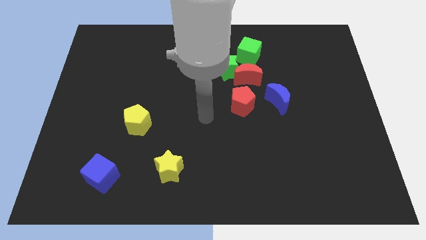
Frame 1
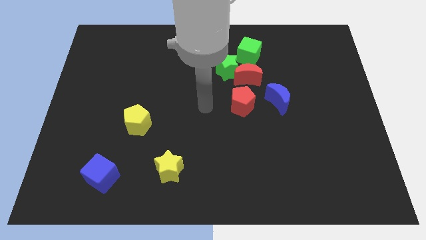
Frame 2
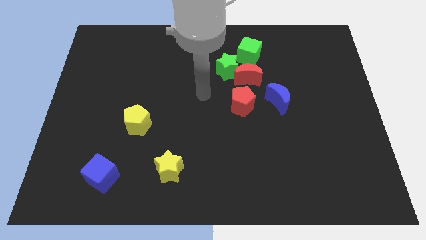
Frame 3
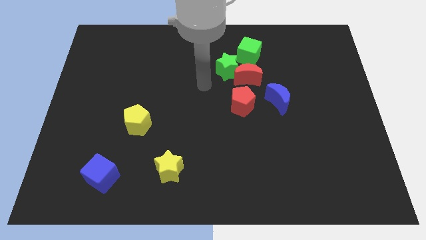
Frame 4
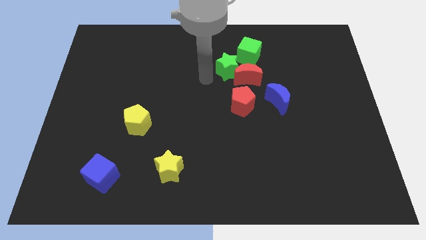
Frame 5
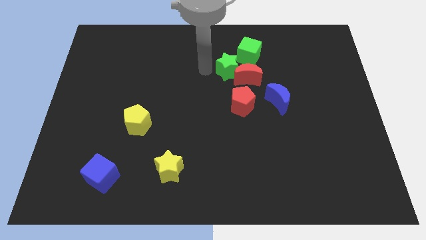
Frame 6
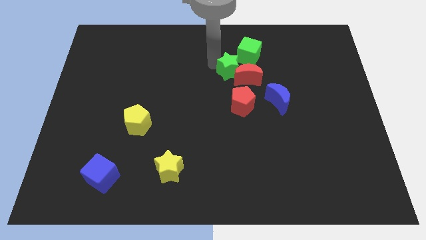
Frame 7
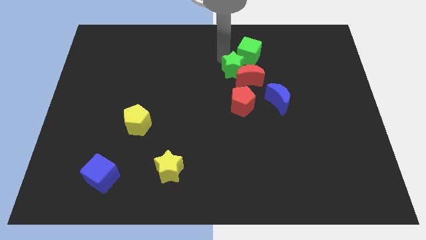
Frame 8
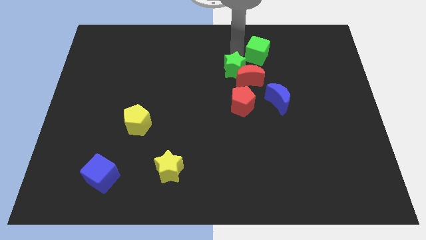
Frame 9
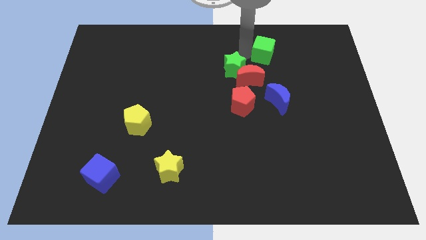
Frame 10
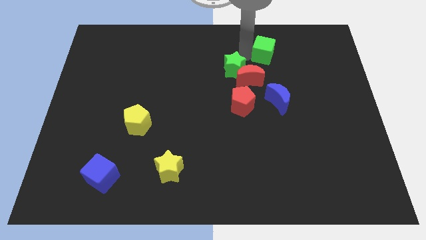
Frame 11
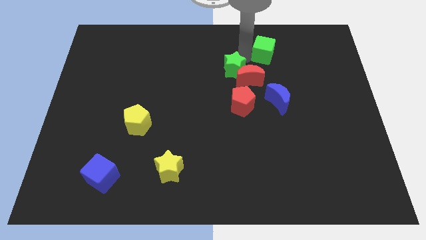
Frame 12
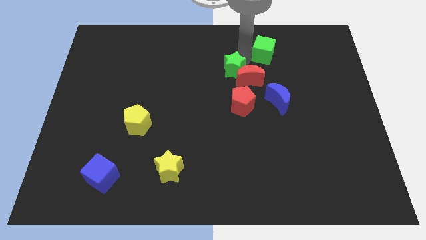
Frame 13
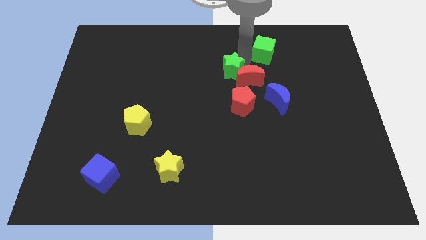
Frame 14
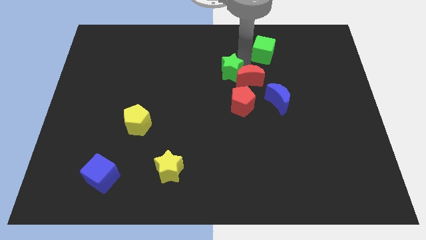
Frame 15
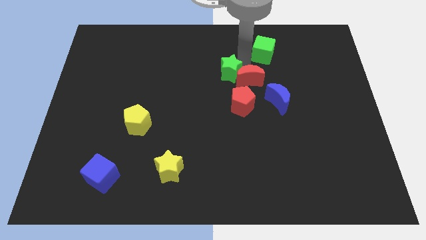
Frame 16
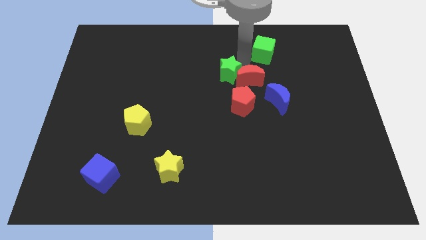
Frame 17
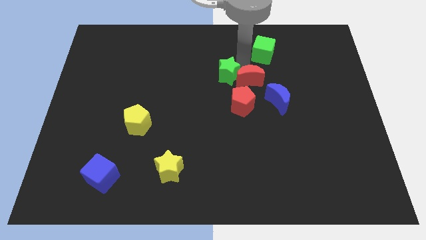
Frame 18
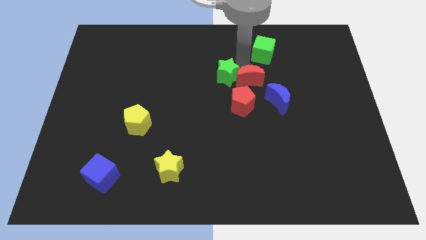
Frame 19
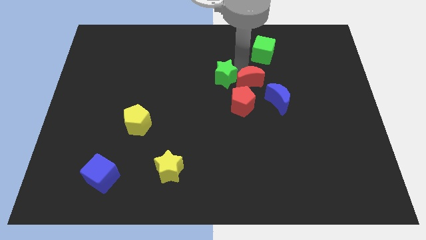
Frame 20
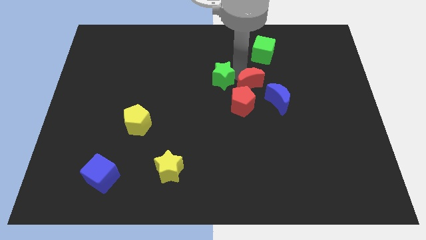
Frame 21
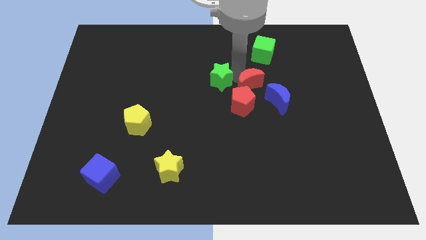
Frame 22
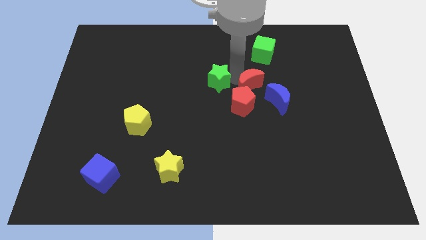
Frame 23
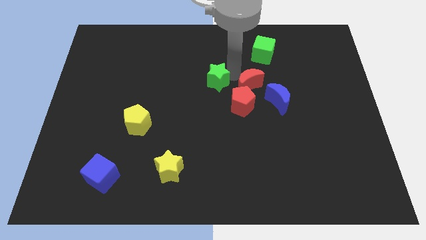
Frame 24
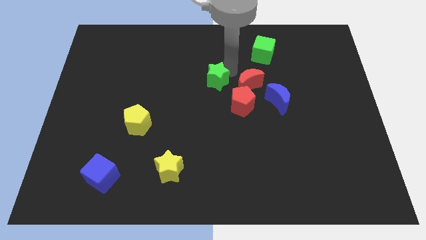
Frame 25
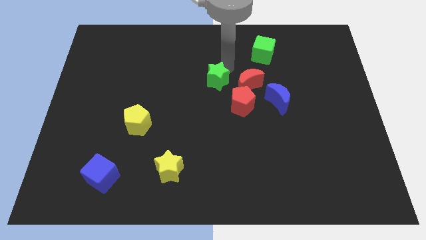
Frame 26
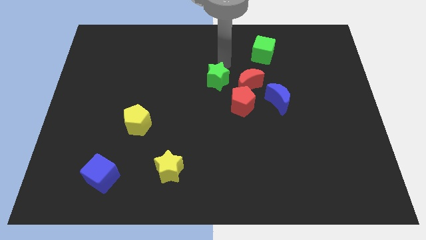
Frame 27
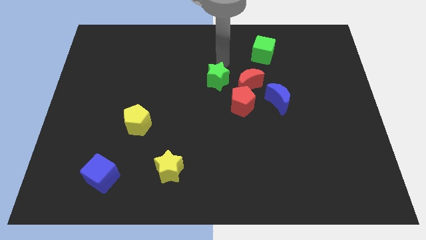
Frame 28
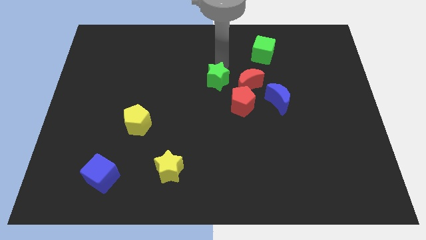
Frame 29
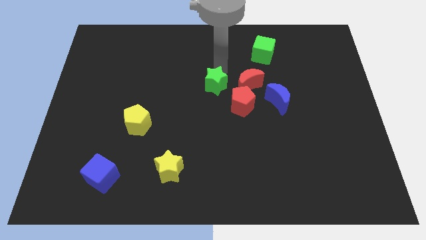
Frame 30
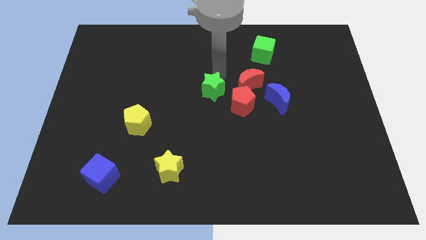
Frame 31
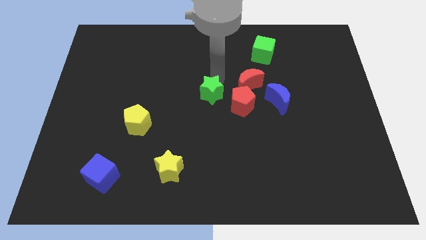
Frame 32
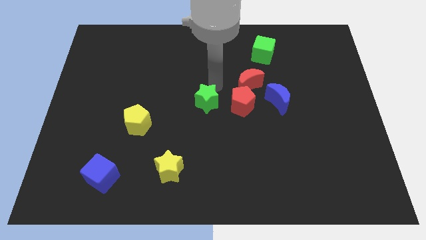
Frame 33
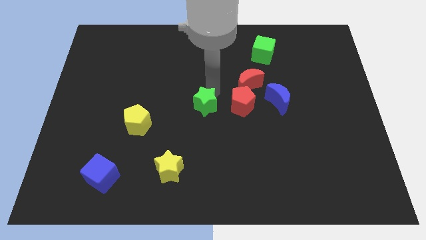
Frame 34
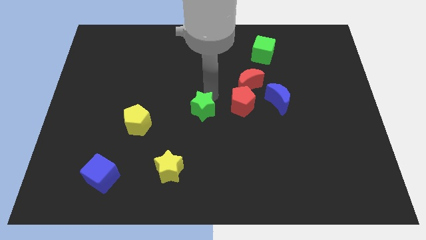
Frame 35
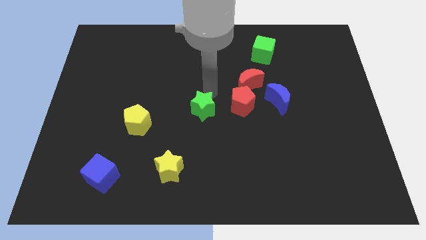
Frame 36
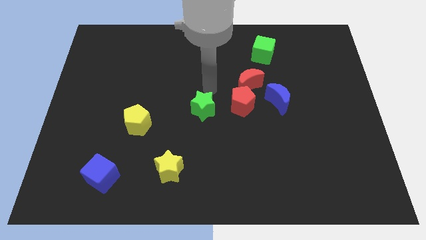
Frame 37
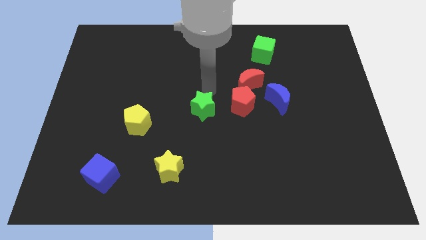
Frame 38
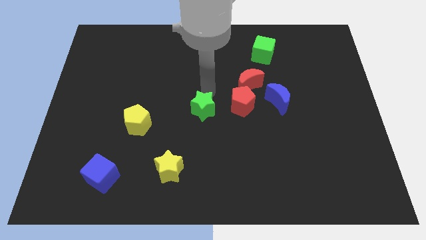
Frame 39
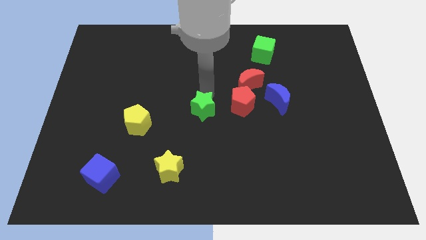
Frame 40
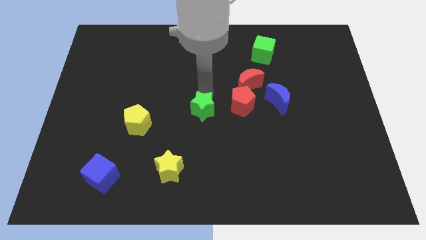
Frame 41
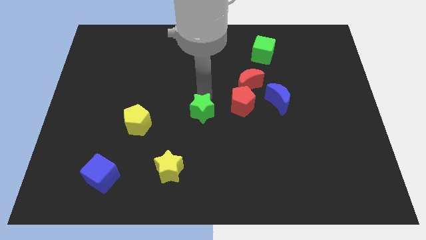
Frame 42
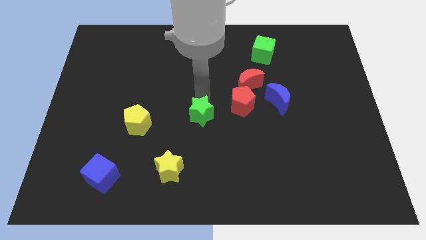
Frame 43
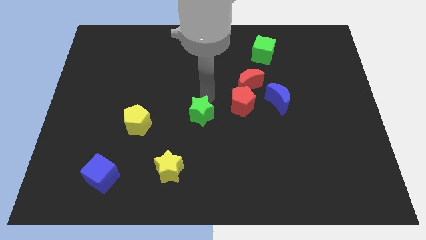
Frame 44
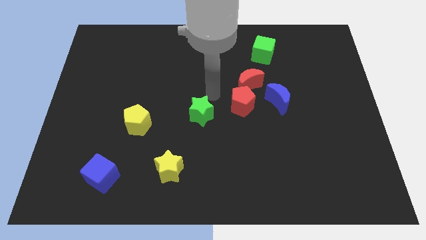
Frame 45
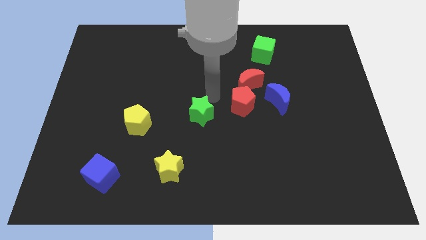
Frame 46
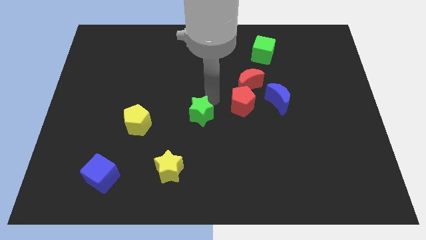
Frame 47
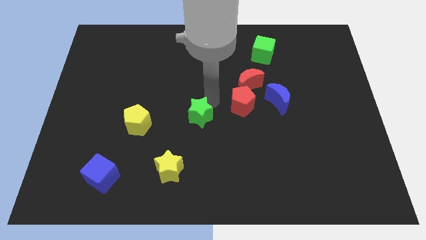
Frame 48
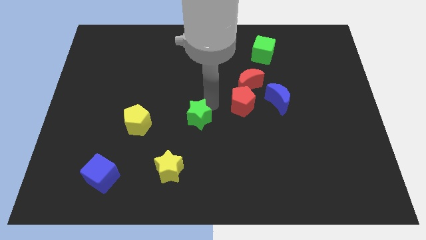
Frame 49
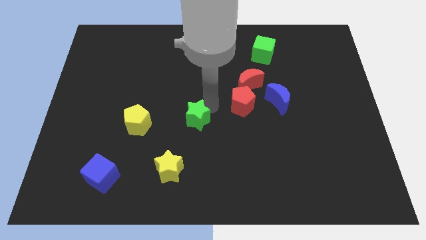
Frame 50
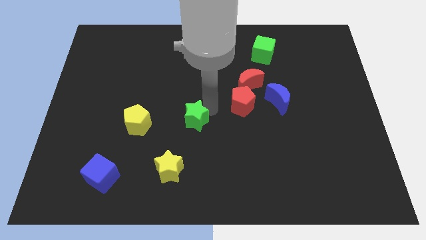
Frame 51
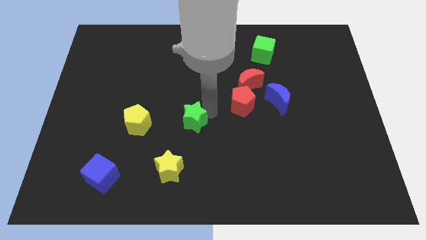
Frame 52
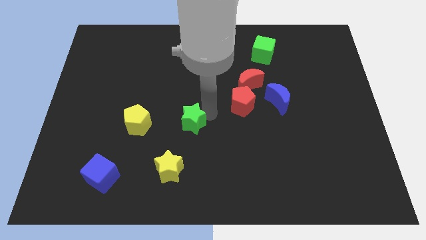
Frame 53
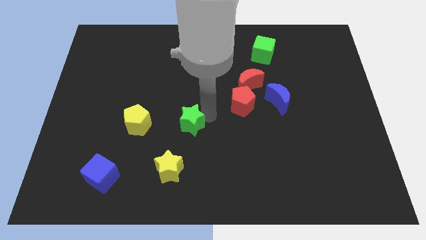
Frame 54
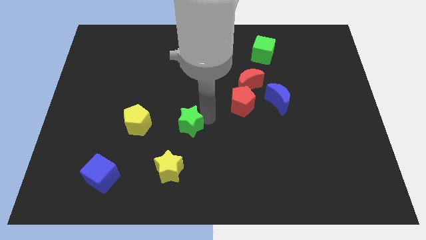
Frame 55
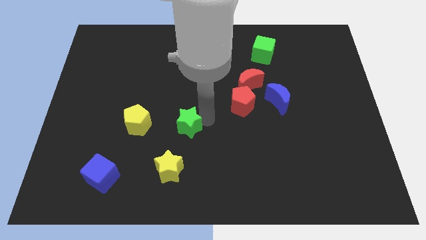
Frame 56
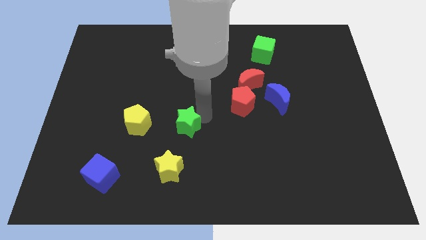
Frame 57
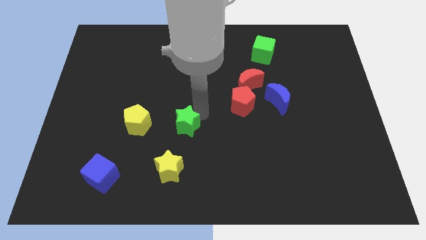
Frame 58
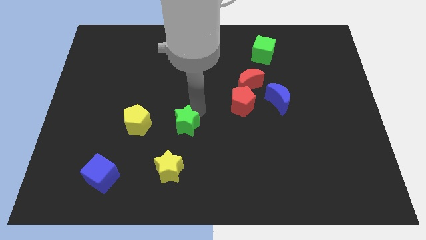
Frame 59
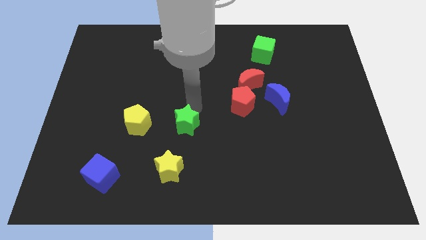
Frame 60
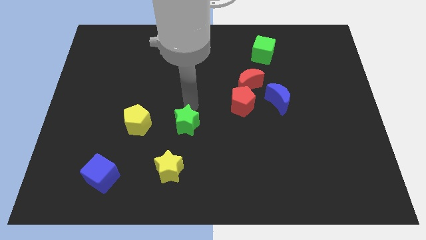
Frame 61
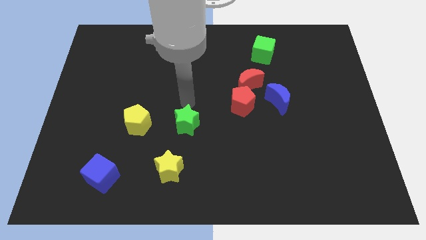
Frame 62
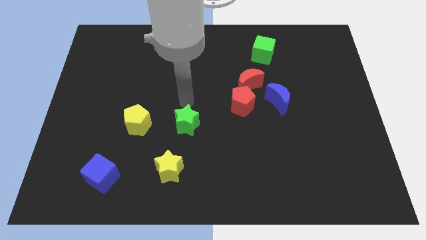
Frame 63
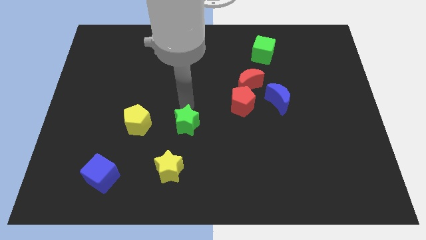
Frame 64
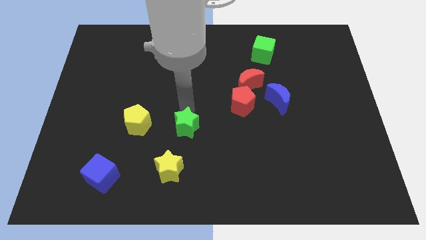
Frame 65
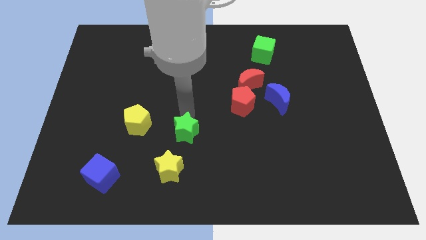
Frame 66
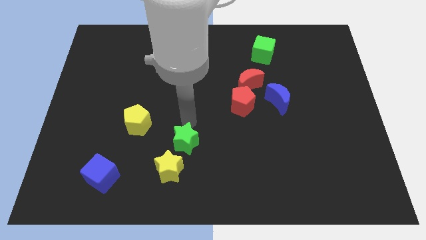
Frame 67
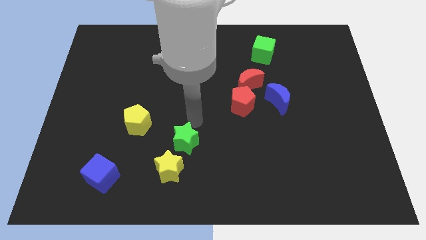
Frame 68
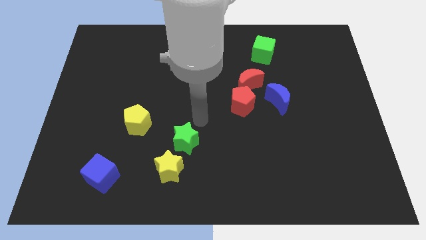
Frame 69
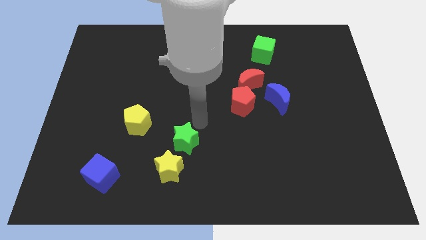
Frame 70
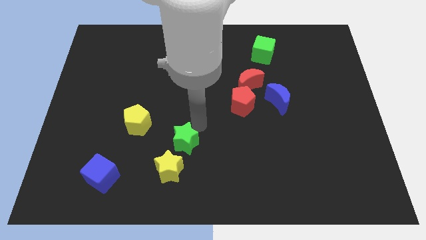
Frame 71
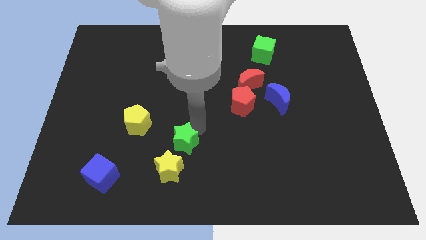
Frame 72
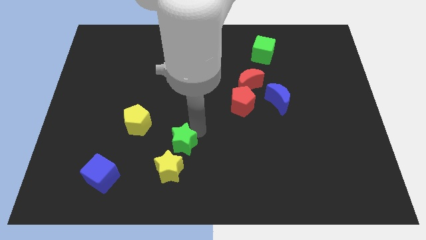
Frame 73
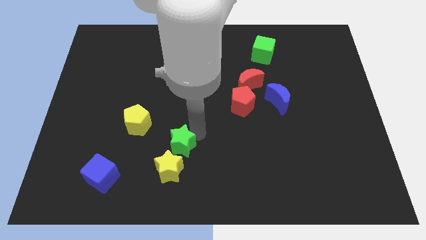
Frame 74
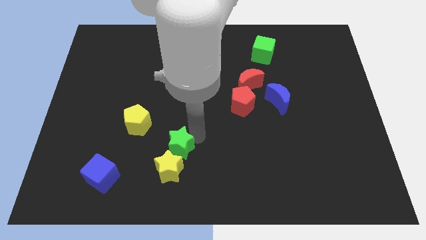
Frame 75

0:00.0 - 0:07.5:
put the green star to the yellow star
